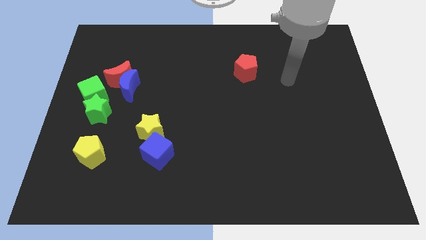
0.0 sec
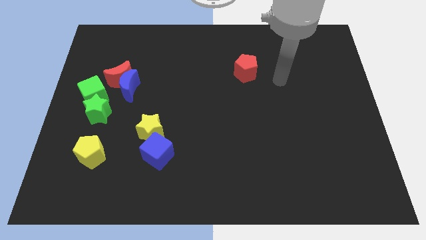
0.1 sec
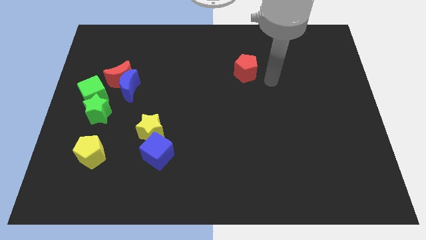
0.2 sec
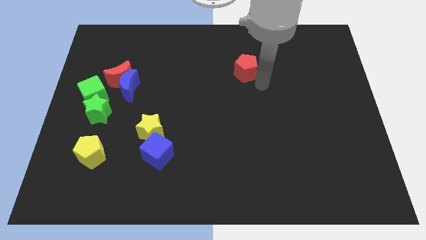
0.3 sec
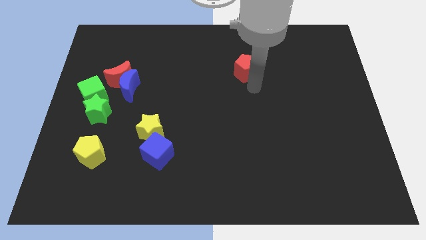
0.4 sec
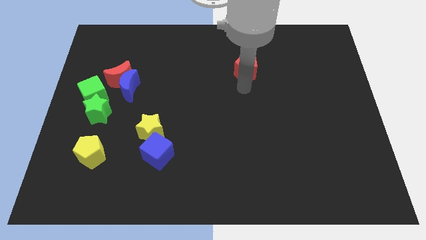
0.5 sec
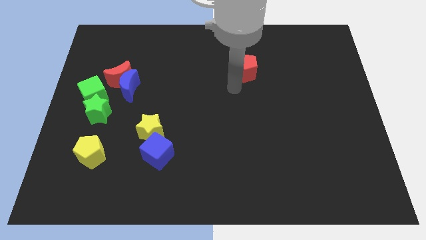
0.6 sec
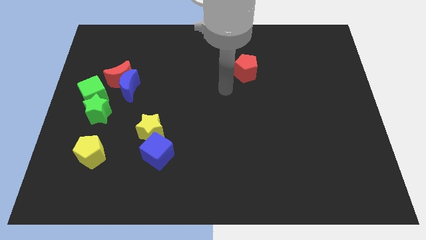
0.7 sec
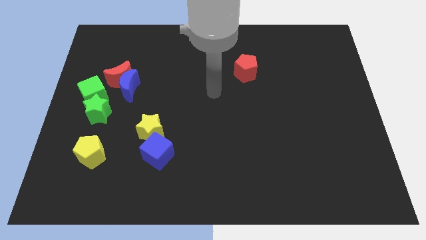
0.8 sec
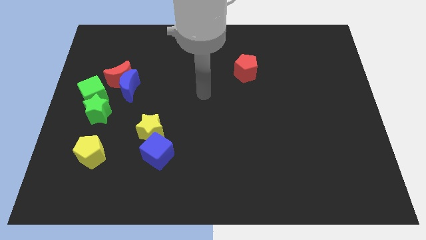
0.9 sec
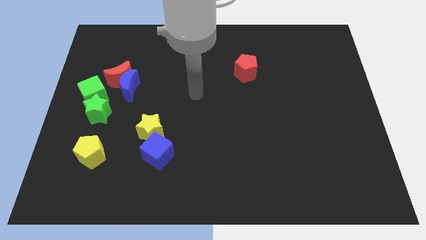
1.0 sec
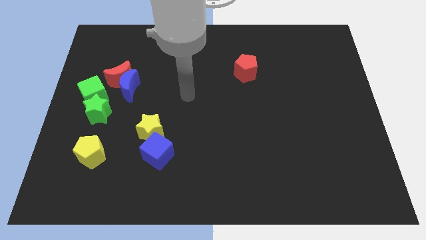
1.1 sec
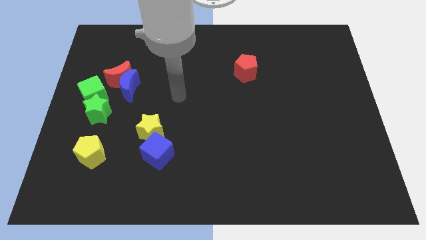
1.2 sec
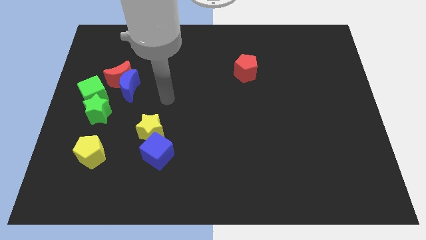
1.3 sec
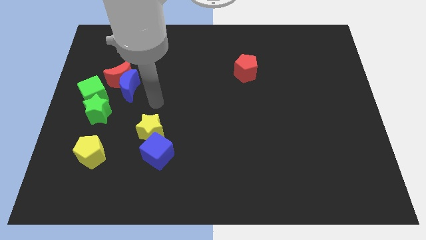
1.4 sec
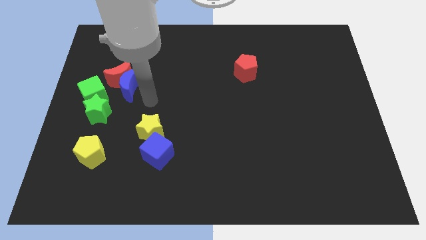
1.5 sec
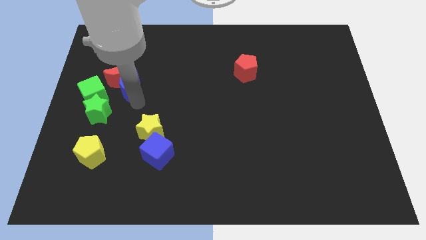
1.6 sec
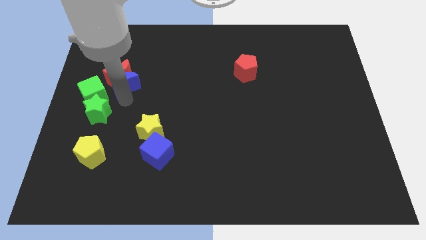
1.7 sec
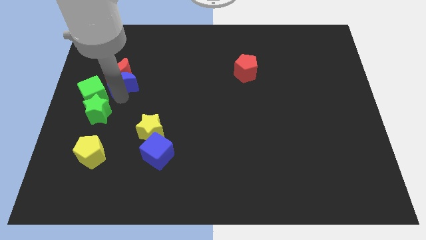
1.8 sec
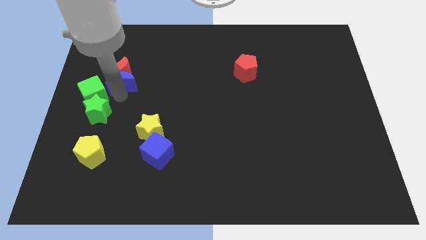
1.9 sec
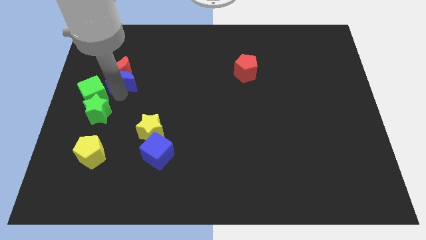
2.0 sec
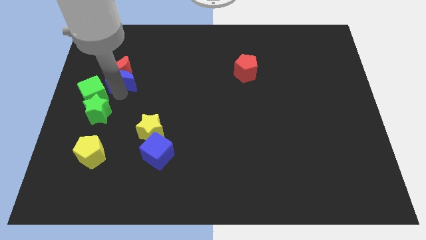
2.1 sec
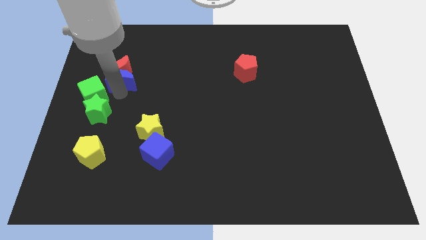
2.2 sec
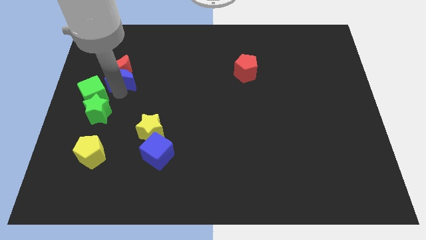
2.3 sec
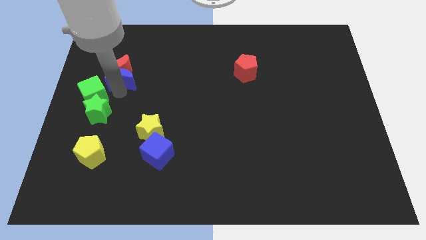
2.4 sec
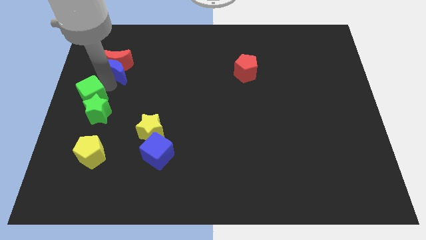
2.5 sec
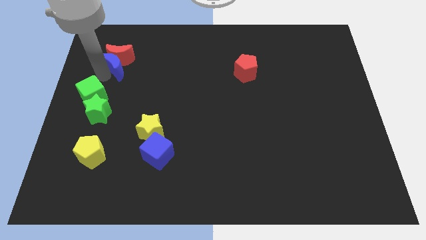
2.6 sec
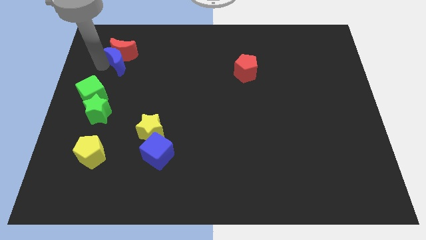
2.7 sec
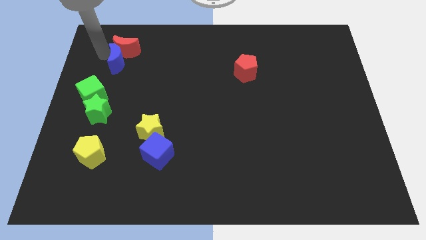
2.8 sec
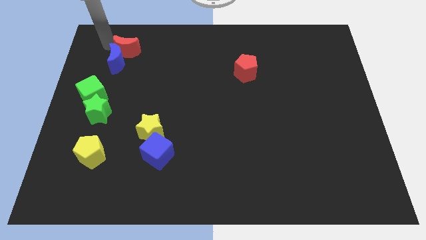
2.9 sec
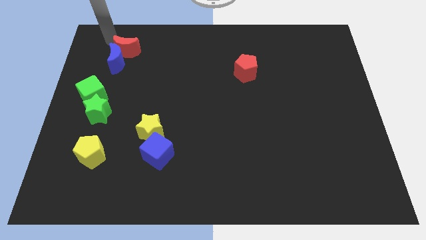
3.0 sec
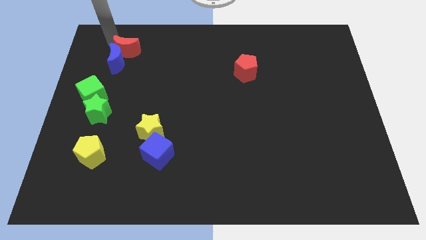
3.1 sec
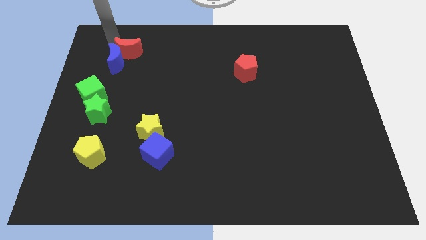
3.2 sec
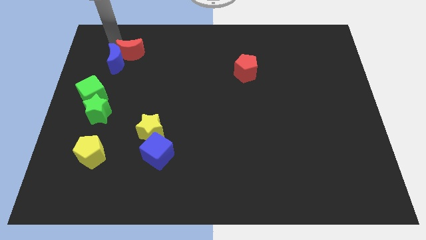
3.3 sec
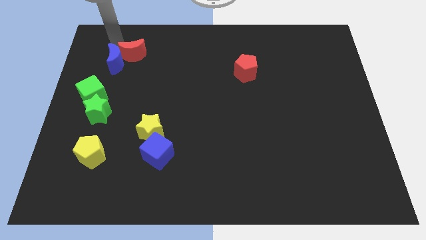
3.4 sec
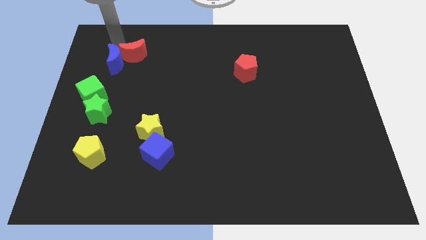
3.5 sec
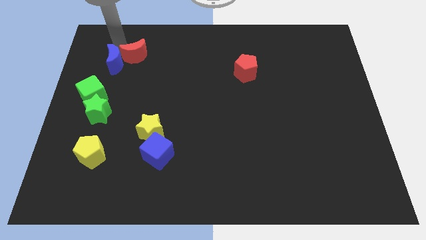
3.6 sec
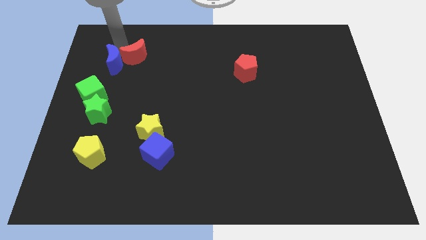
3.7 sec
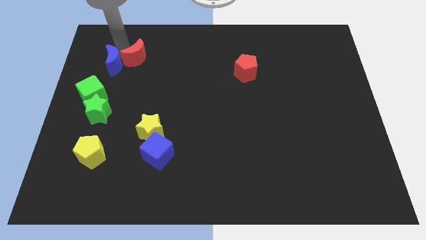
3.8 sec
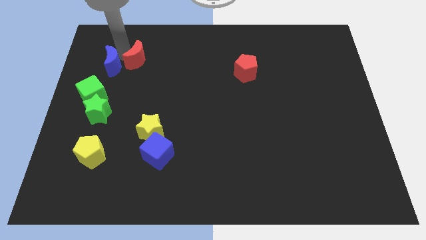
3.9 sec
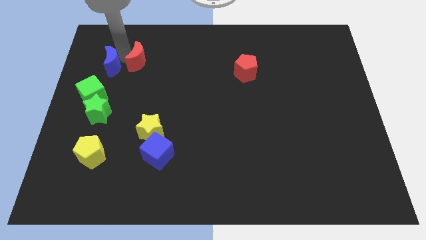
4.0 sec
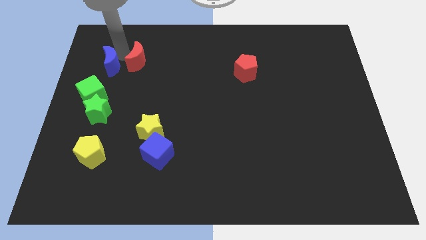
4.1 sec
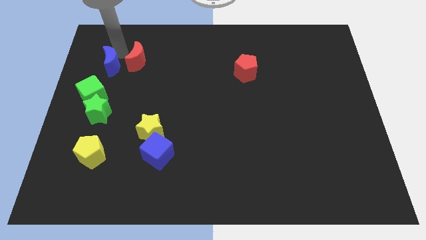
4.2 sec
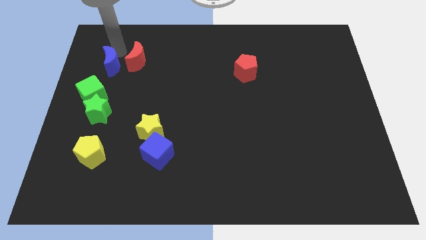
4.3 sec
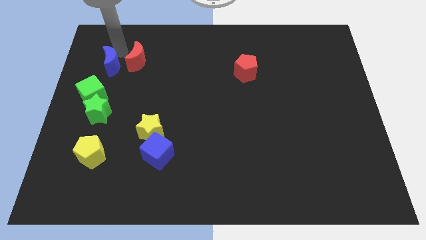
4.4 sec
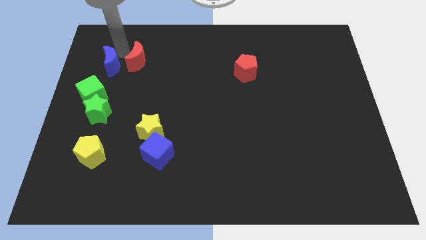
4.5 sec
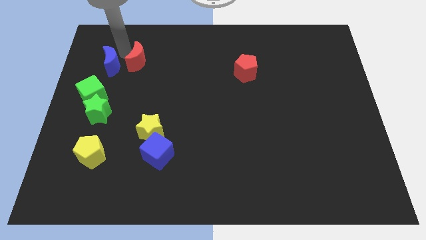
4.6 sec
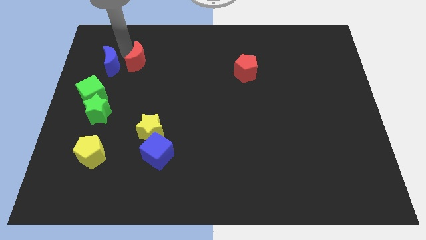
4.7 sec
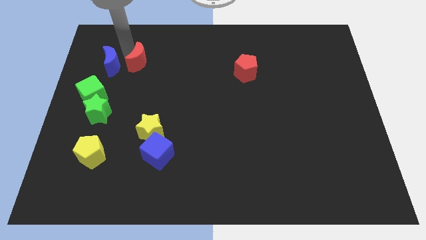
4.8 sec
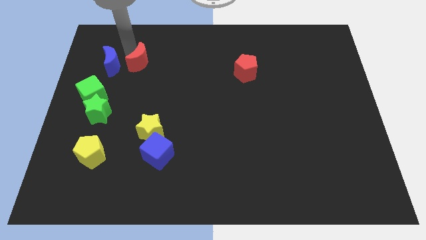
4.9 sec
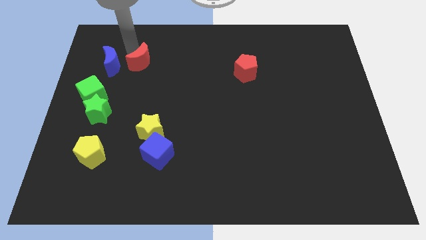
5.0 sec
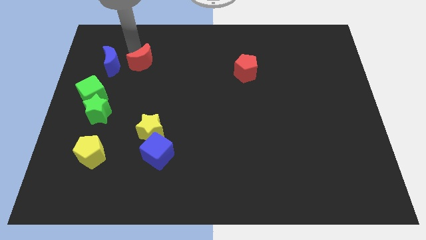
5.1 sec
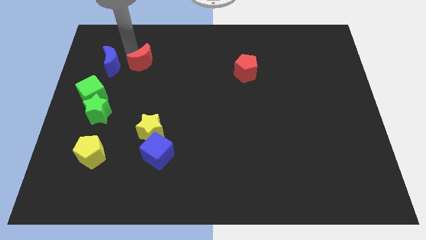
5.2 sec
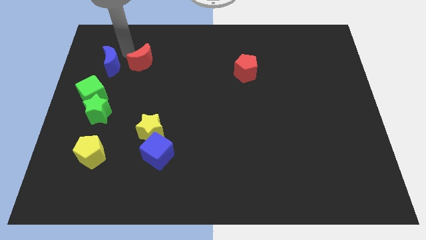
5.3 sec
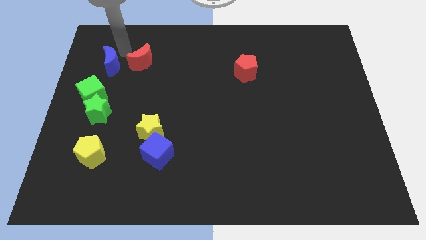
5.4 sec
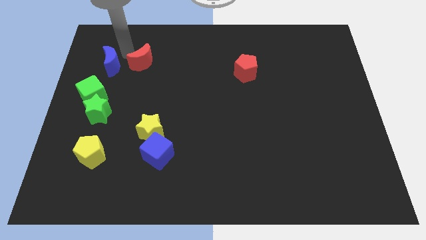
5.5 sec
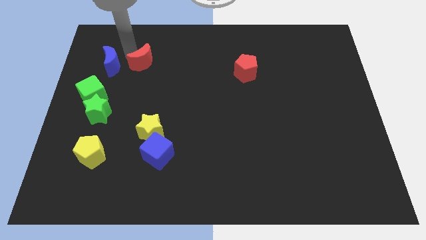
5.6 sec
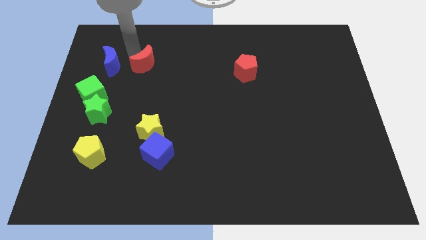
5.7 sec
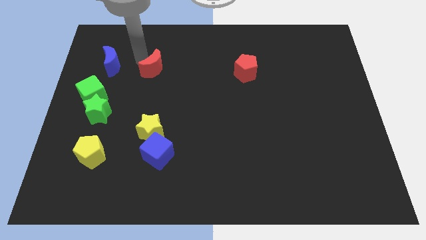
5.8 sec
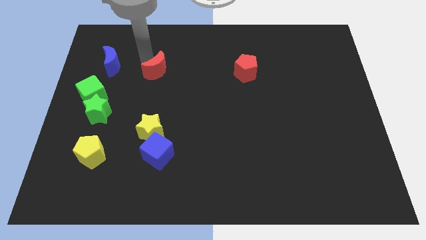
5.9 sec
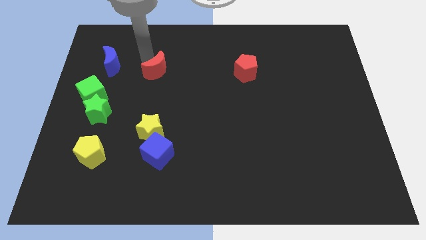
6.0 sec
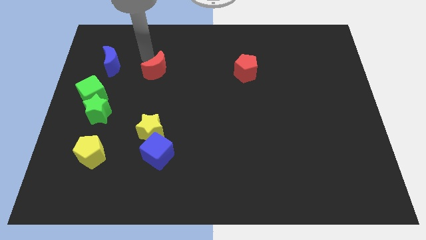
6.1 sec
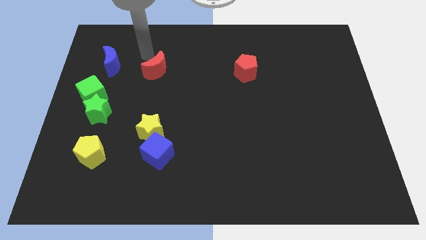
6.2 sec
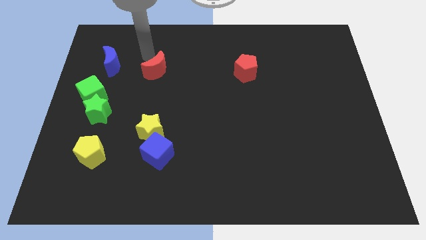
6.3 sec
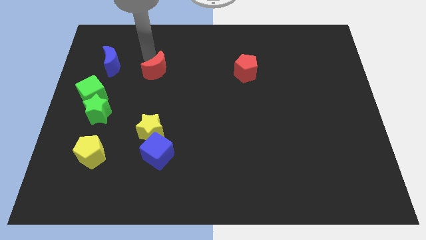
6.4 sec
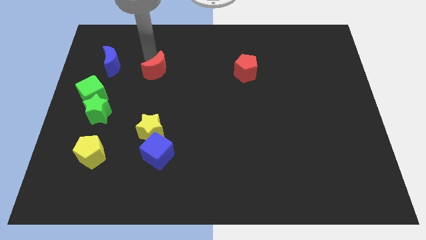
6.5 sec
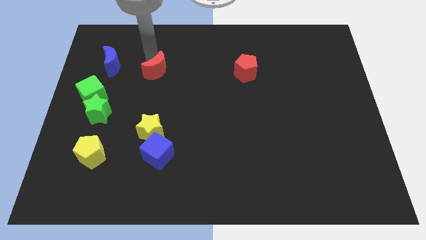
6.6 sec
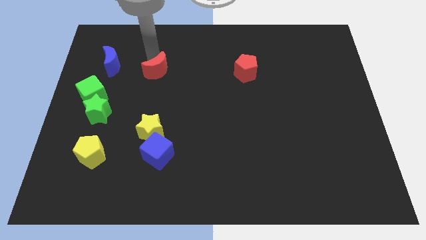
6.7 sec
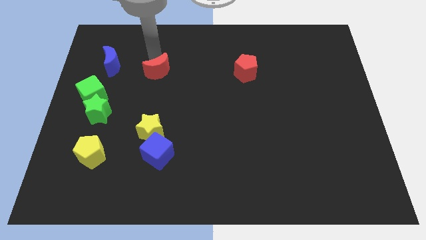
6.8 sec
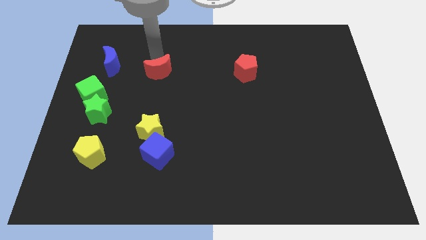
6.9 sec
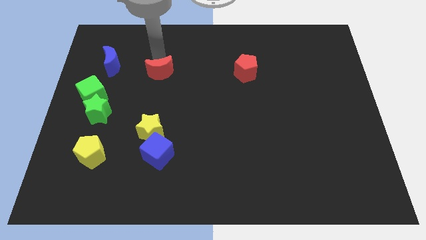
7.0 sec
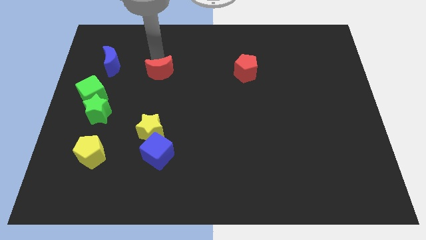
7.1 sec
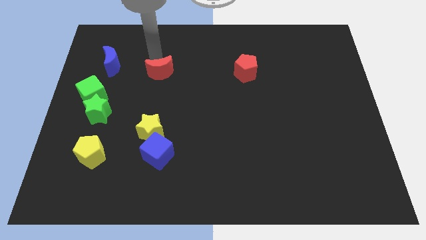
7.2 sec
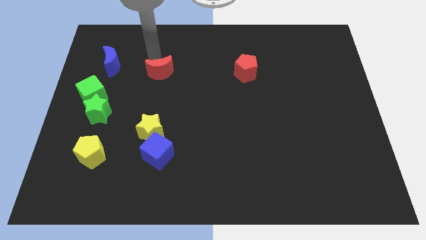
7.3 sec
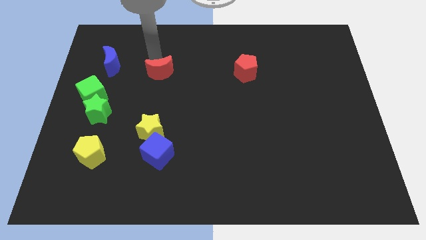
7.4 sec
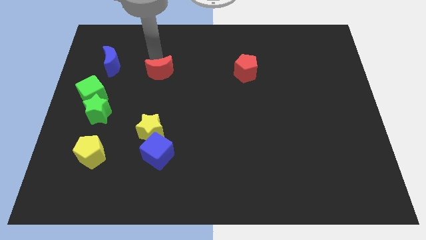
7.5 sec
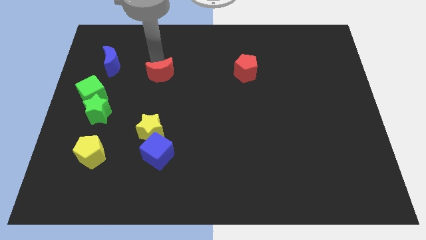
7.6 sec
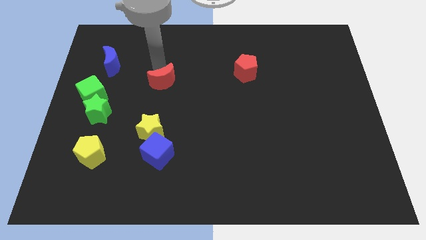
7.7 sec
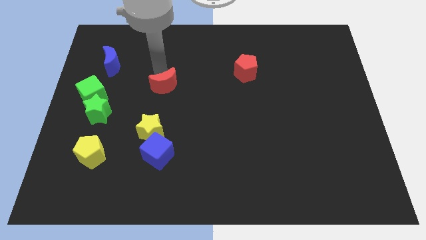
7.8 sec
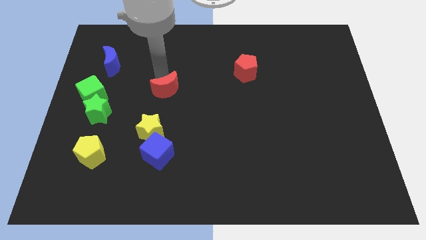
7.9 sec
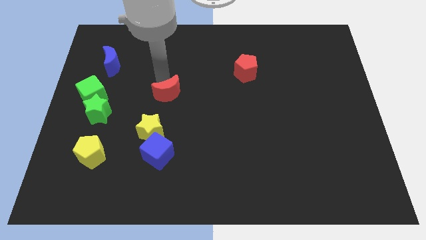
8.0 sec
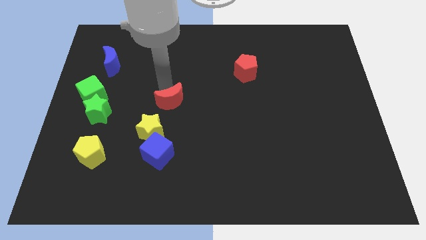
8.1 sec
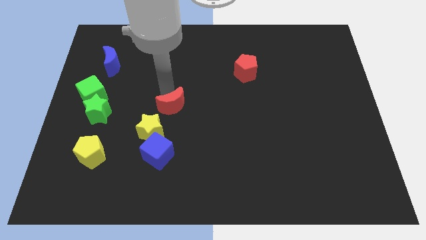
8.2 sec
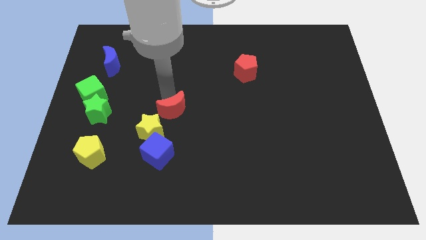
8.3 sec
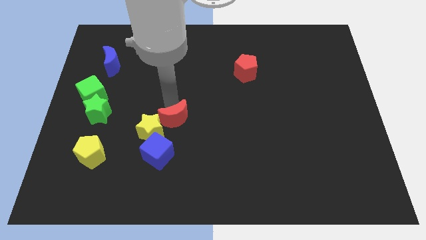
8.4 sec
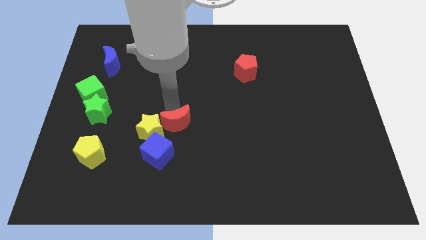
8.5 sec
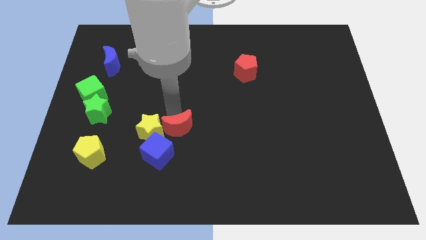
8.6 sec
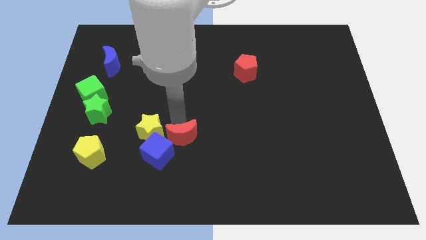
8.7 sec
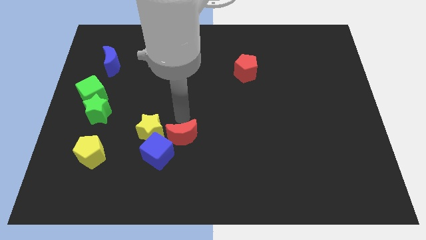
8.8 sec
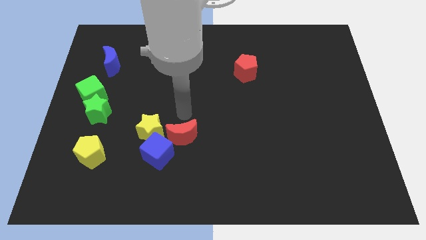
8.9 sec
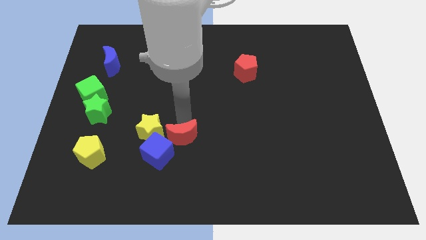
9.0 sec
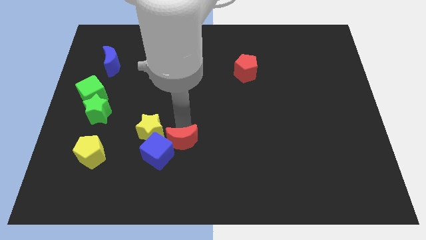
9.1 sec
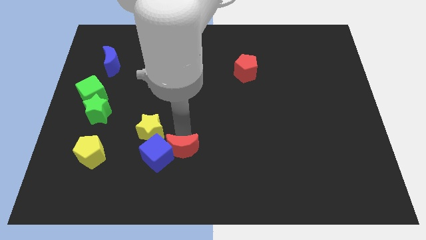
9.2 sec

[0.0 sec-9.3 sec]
slide the red moon to the bottom right side of the blue cube
